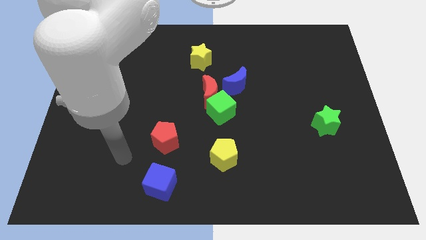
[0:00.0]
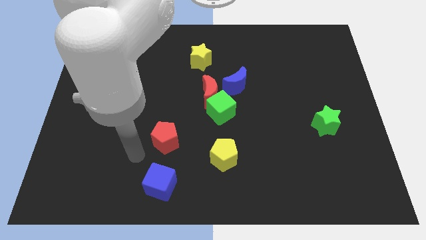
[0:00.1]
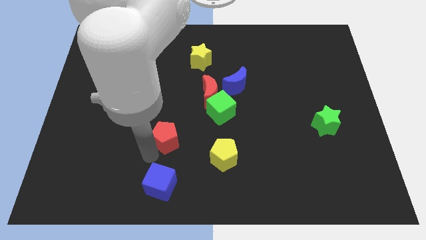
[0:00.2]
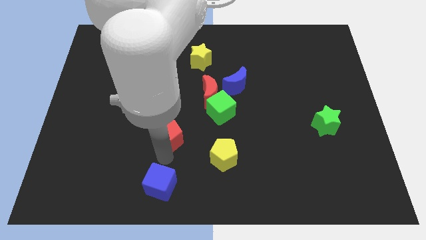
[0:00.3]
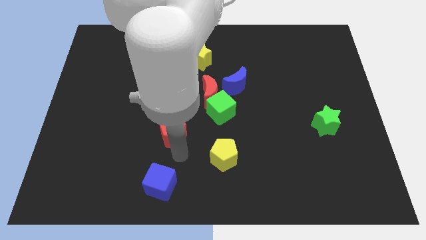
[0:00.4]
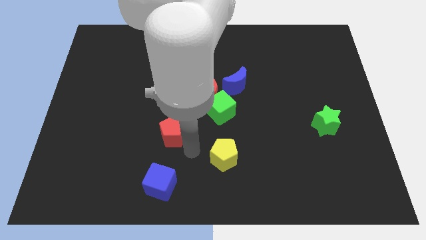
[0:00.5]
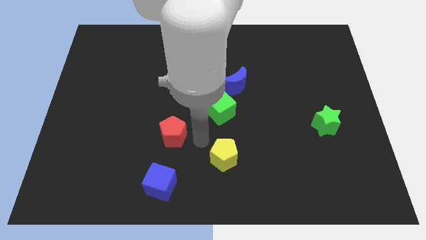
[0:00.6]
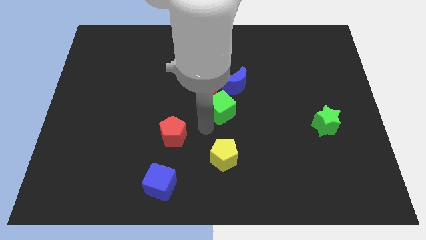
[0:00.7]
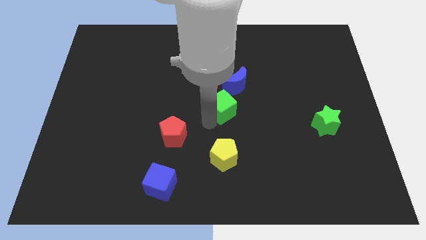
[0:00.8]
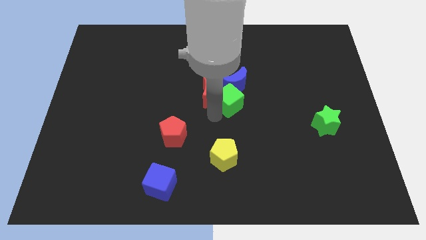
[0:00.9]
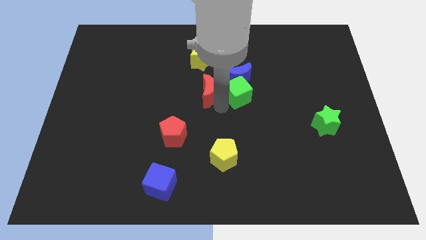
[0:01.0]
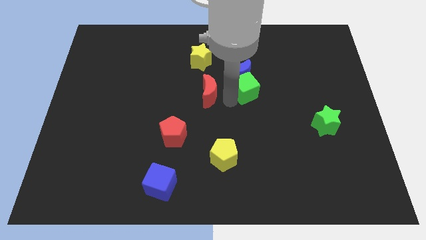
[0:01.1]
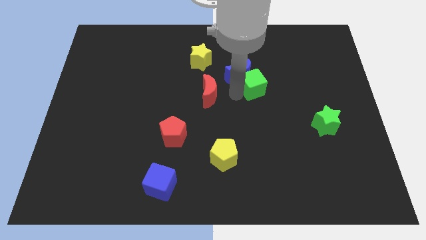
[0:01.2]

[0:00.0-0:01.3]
separate the red moon from the green cube and blue moon

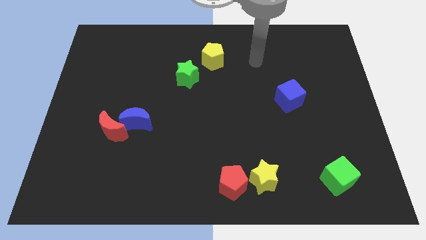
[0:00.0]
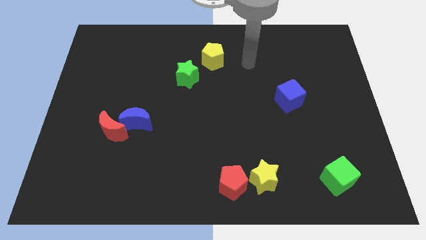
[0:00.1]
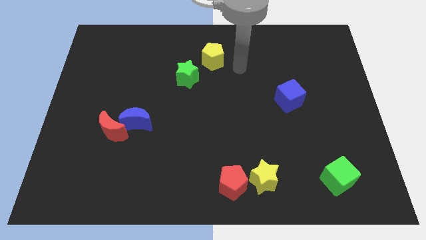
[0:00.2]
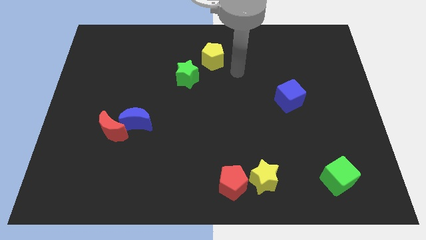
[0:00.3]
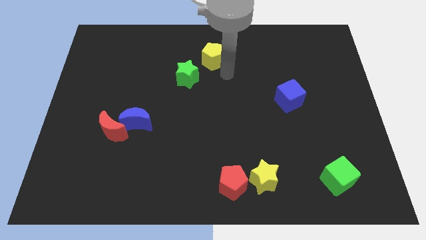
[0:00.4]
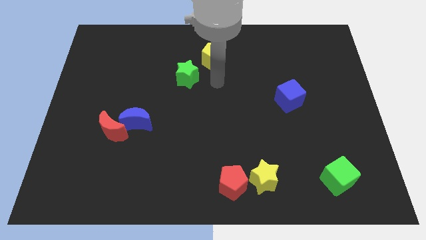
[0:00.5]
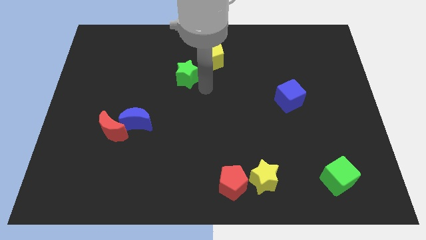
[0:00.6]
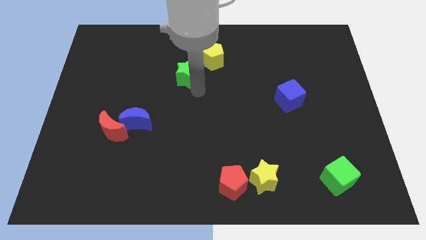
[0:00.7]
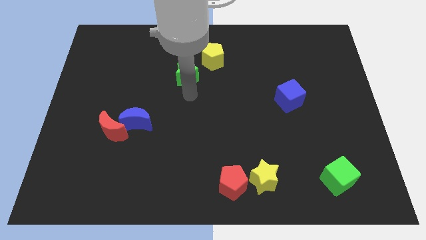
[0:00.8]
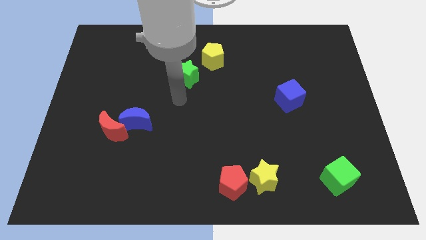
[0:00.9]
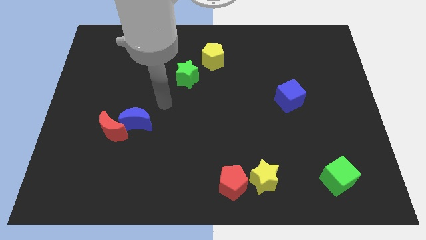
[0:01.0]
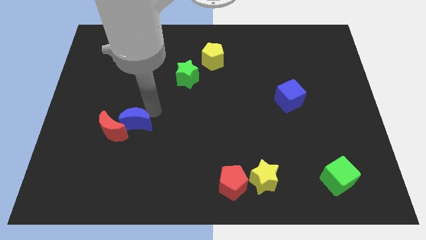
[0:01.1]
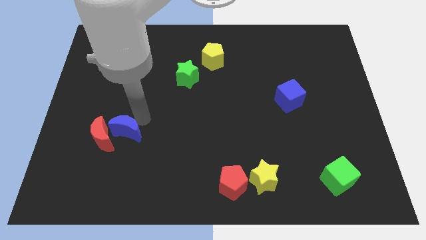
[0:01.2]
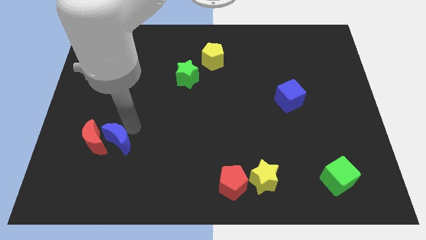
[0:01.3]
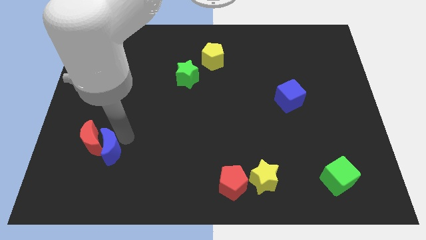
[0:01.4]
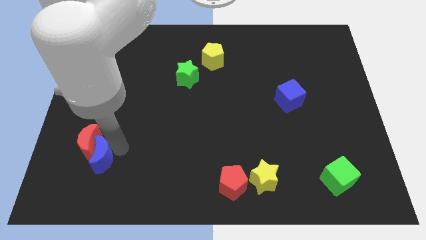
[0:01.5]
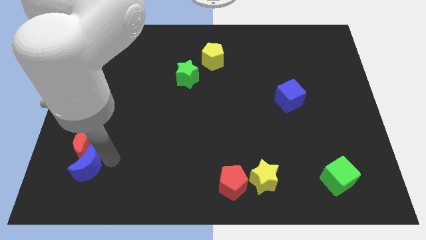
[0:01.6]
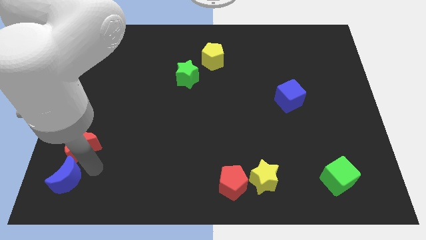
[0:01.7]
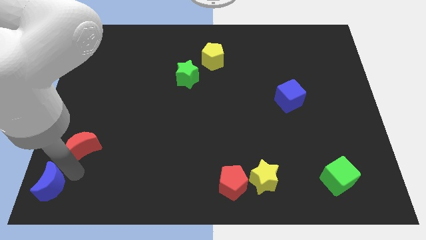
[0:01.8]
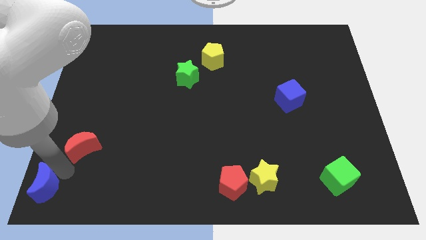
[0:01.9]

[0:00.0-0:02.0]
separate the red moon from the blue moon

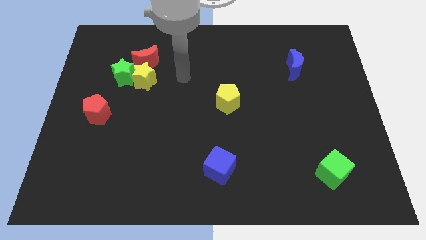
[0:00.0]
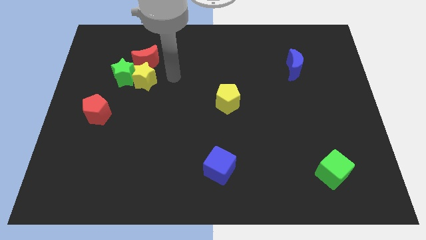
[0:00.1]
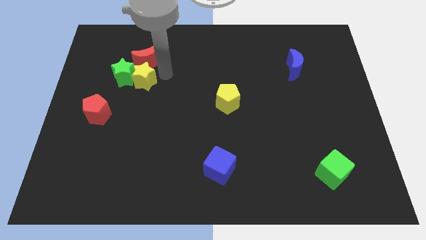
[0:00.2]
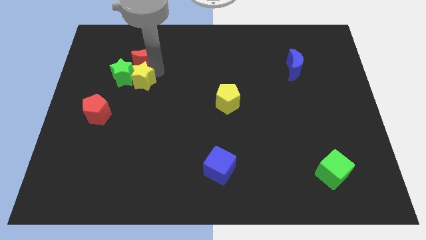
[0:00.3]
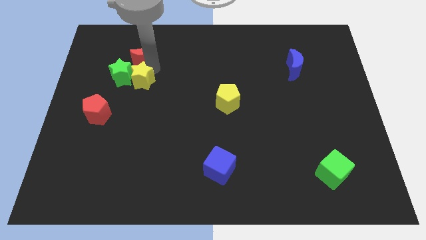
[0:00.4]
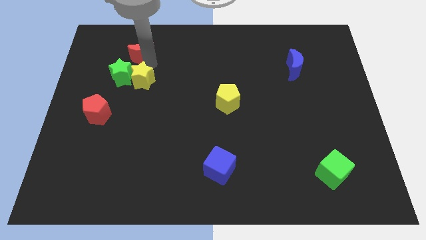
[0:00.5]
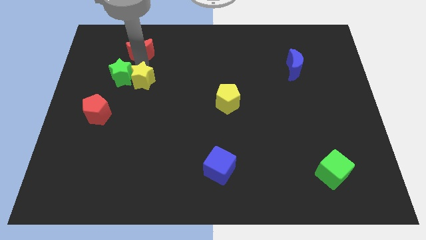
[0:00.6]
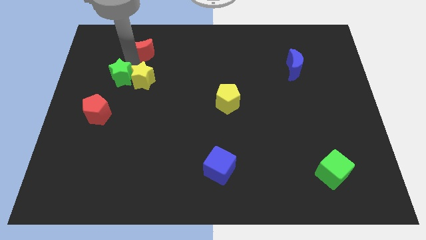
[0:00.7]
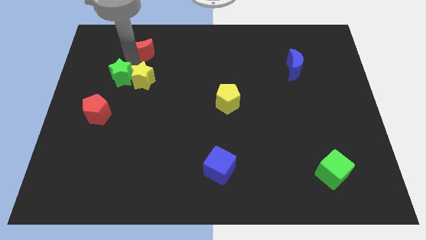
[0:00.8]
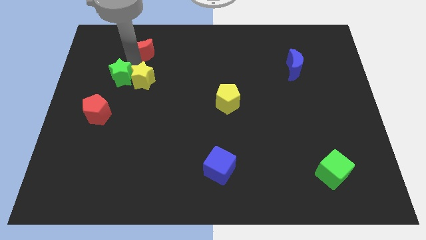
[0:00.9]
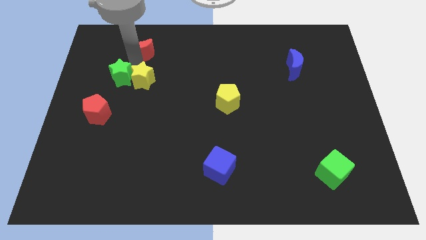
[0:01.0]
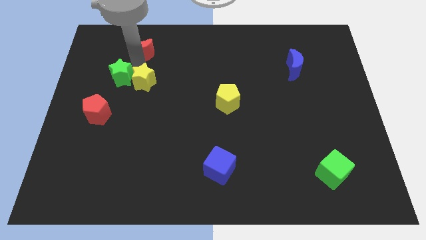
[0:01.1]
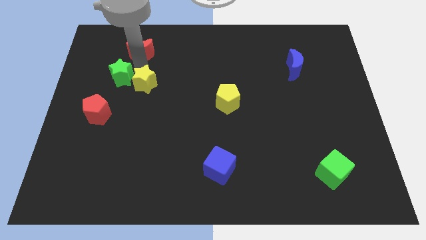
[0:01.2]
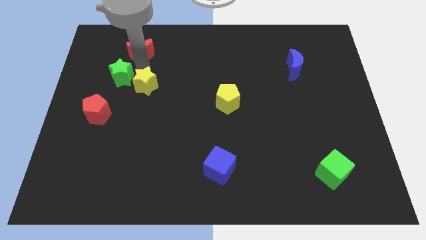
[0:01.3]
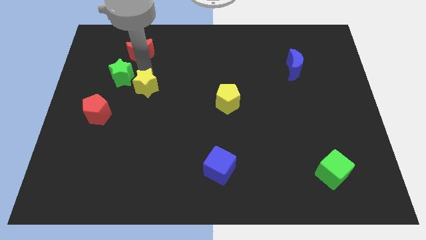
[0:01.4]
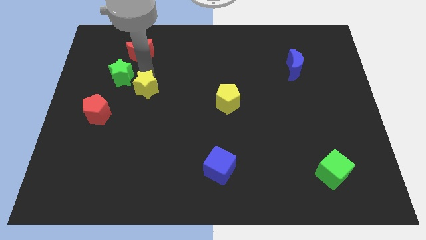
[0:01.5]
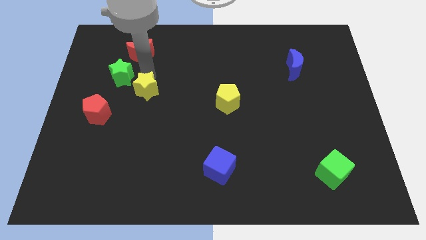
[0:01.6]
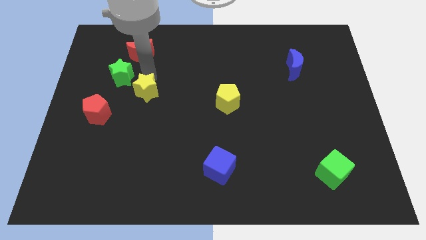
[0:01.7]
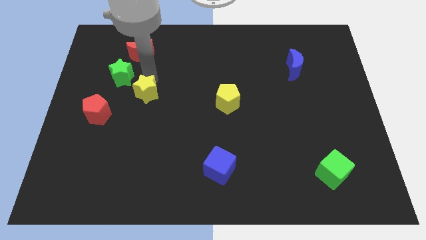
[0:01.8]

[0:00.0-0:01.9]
move the yellow star away from the green star and red moon

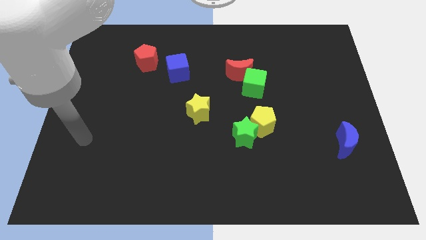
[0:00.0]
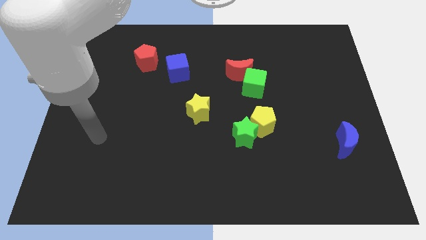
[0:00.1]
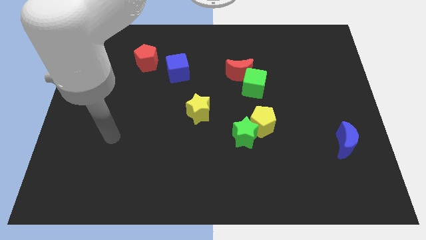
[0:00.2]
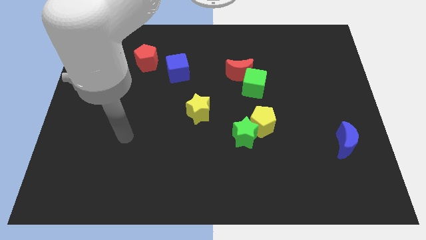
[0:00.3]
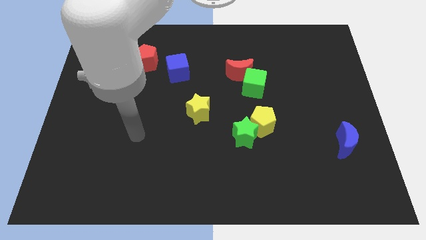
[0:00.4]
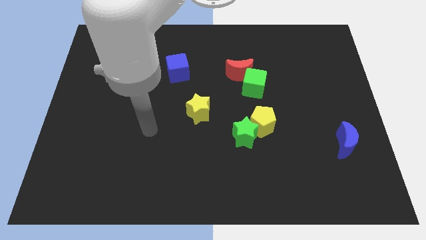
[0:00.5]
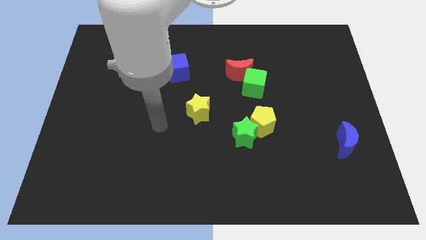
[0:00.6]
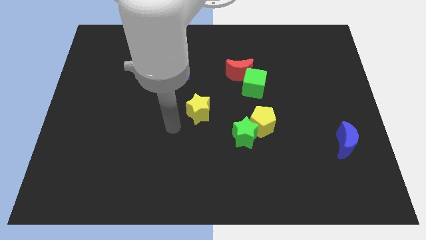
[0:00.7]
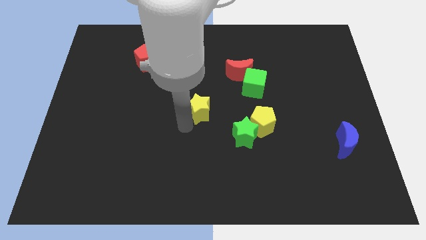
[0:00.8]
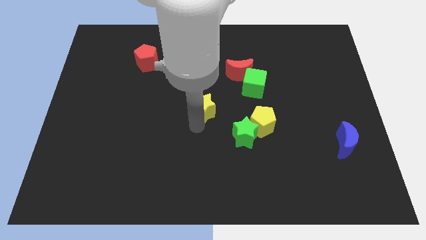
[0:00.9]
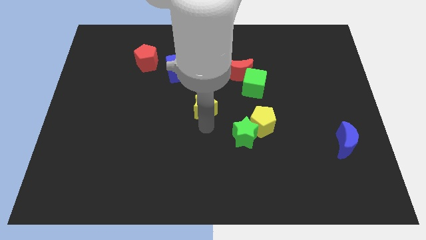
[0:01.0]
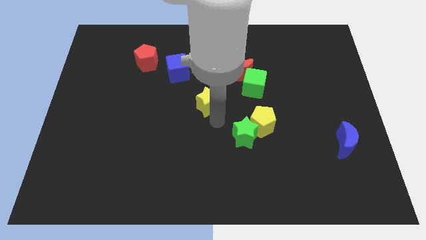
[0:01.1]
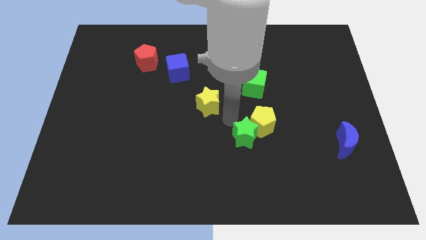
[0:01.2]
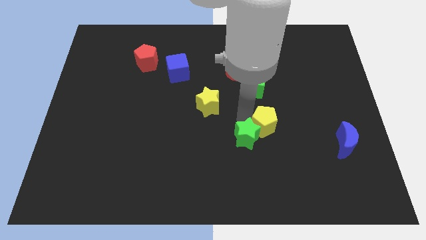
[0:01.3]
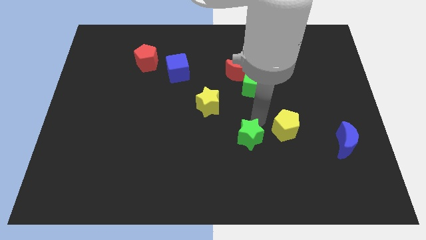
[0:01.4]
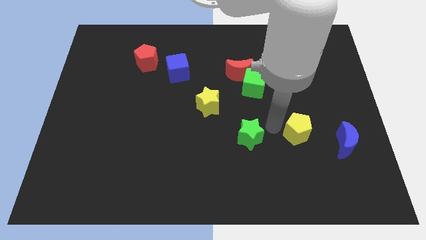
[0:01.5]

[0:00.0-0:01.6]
move the green star away from the yellow pentagon

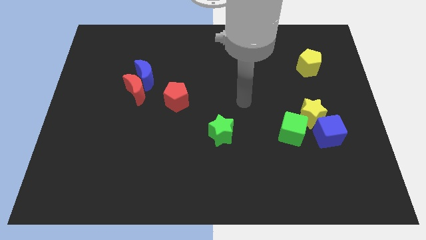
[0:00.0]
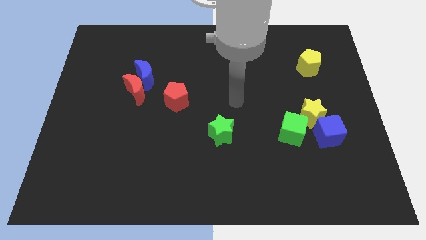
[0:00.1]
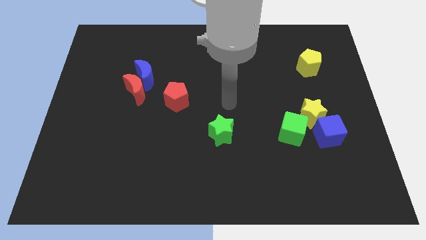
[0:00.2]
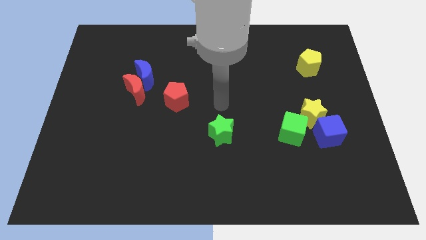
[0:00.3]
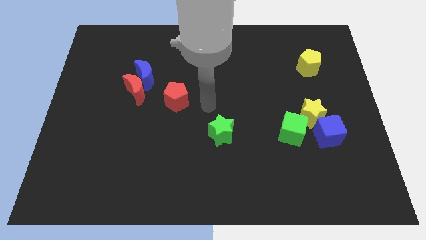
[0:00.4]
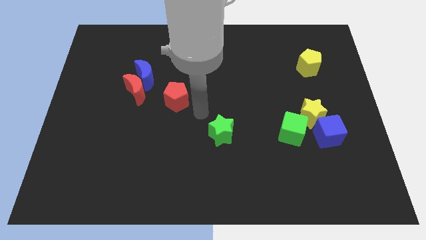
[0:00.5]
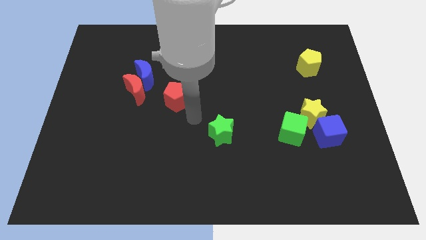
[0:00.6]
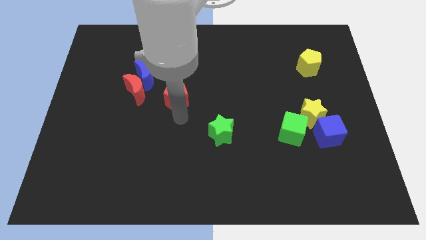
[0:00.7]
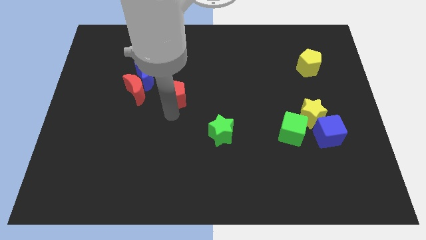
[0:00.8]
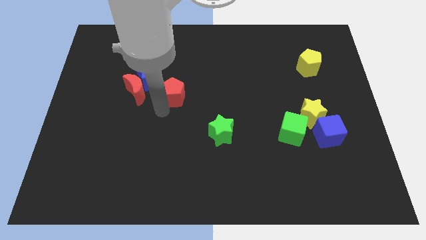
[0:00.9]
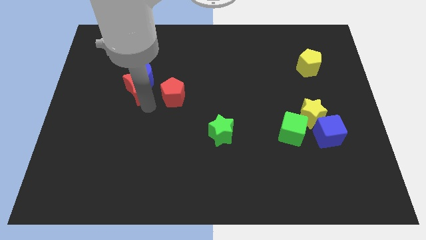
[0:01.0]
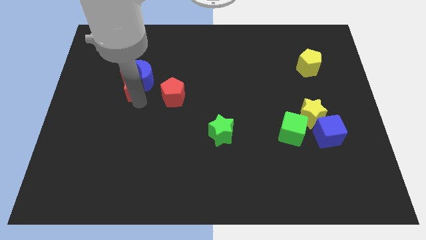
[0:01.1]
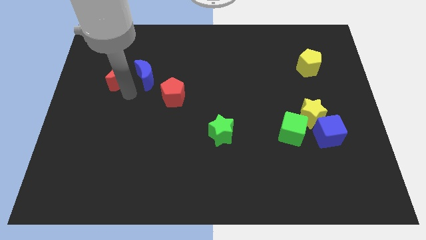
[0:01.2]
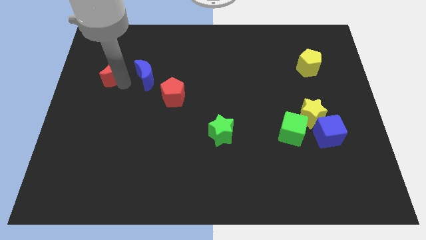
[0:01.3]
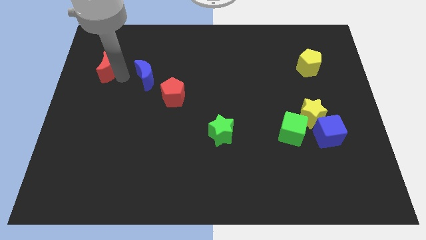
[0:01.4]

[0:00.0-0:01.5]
move the blue moon away from the red moon

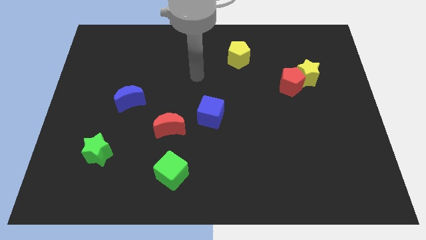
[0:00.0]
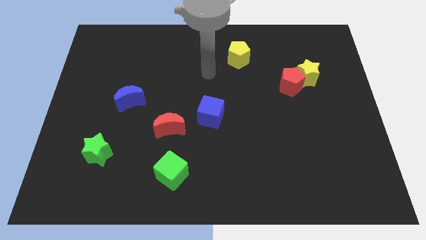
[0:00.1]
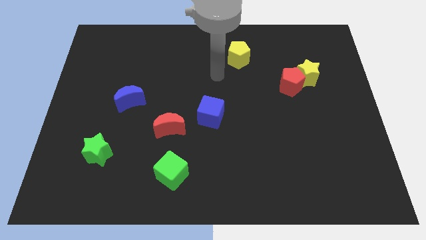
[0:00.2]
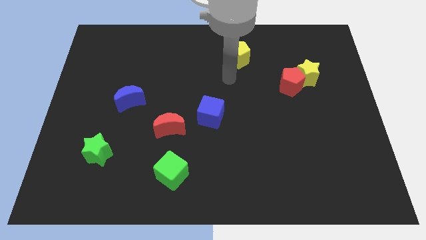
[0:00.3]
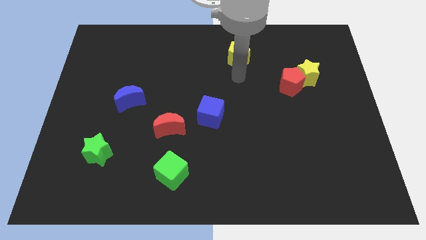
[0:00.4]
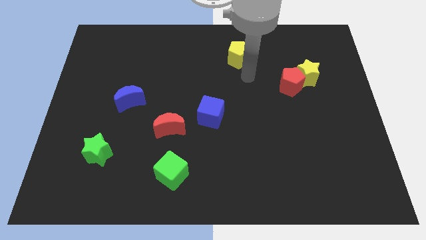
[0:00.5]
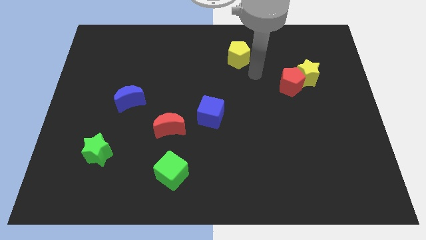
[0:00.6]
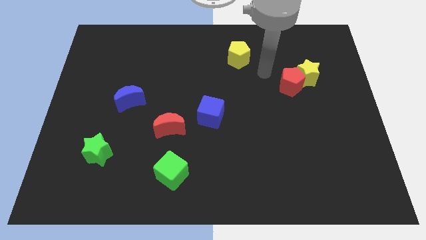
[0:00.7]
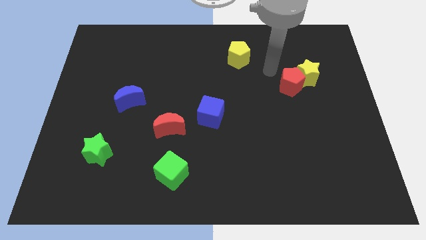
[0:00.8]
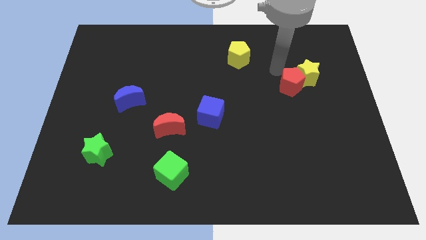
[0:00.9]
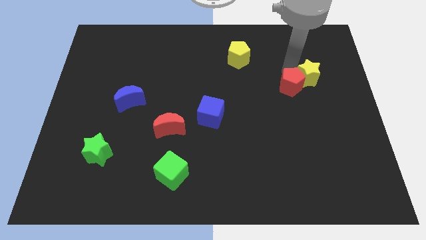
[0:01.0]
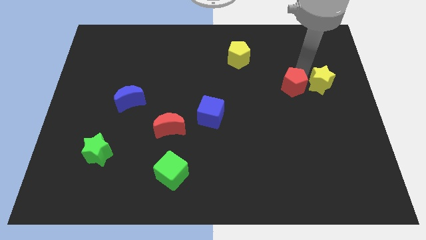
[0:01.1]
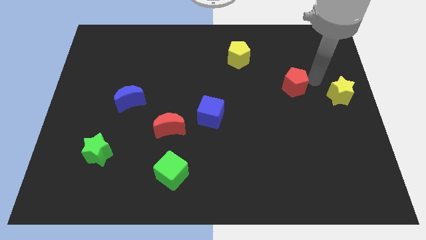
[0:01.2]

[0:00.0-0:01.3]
separate the red pentagon from the yellow star
